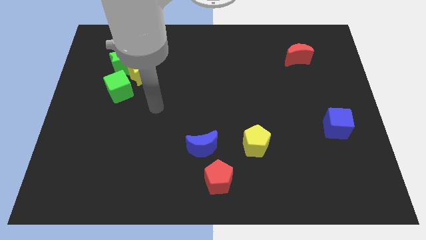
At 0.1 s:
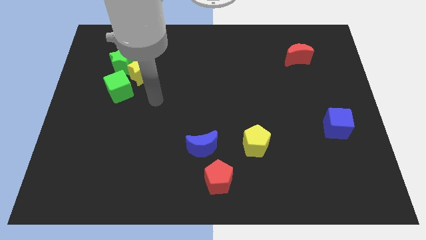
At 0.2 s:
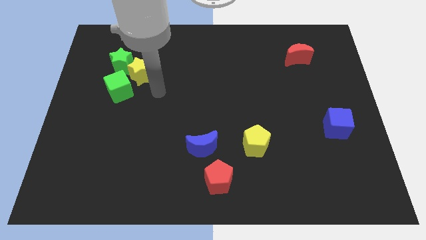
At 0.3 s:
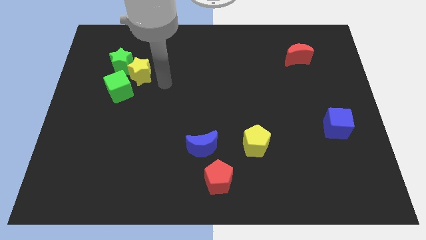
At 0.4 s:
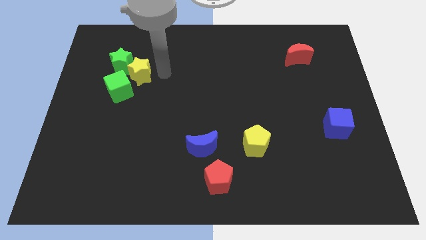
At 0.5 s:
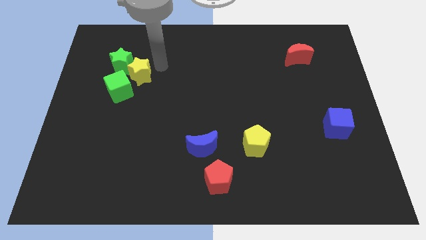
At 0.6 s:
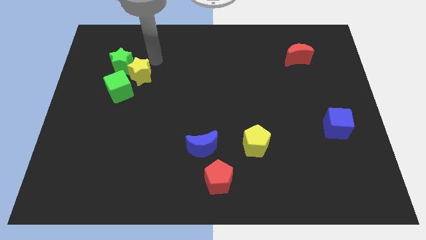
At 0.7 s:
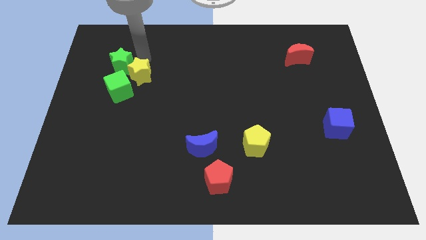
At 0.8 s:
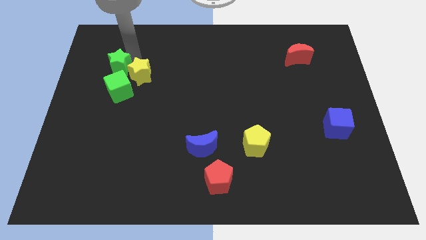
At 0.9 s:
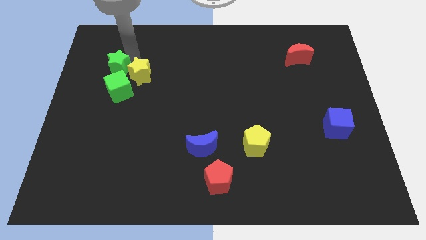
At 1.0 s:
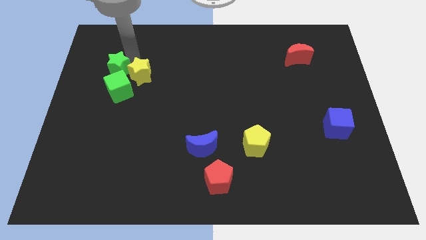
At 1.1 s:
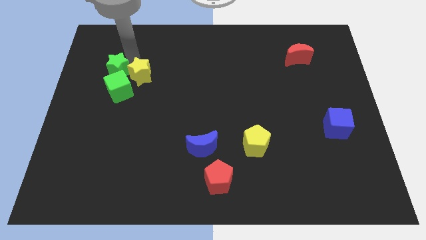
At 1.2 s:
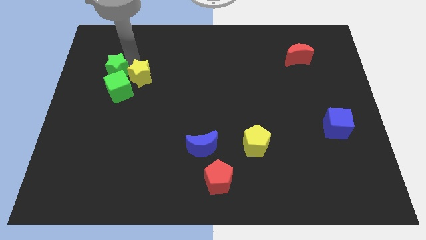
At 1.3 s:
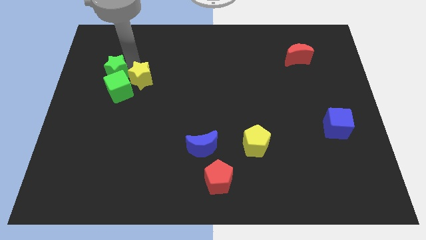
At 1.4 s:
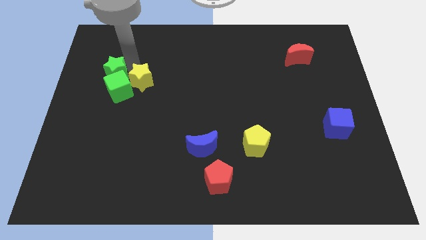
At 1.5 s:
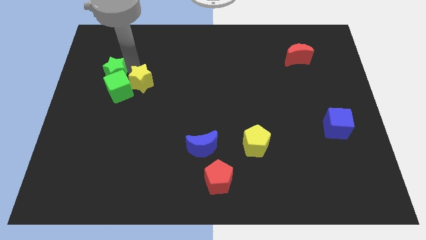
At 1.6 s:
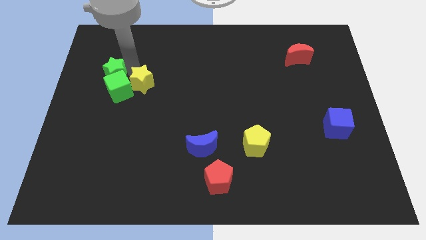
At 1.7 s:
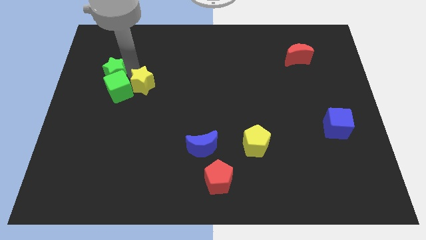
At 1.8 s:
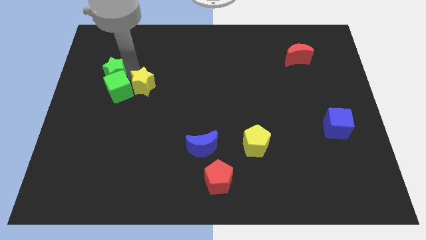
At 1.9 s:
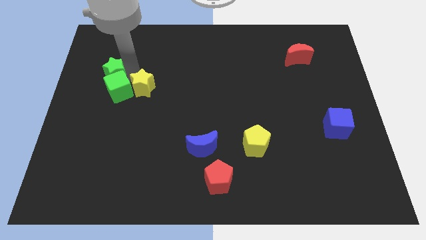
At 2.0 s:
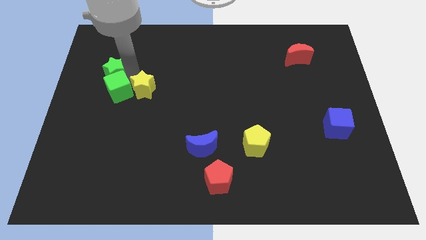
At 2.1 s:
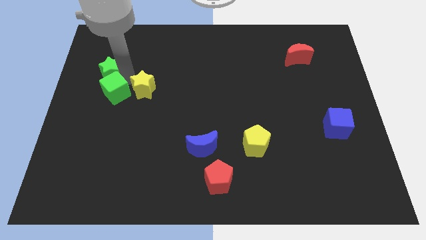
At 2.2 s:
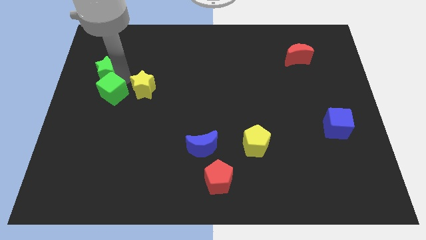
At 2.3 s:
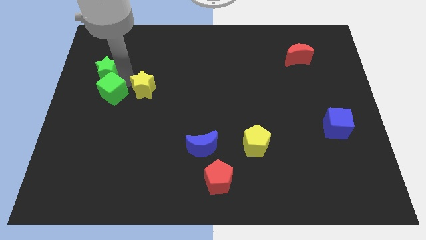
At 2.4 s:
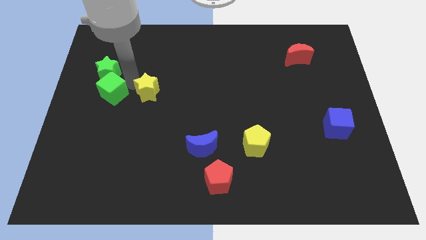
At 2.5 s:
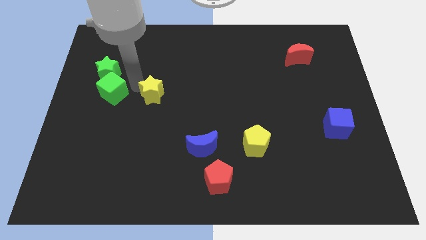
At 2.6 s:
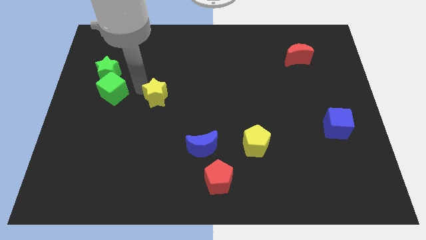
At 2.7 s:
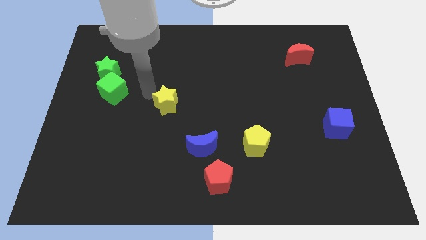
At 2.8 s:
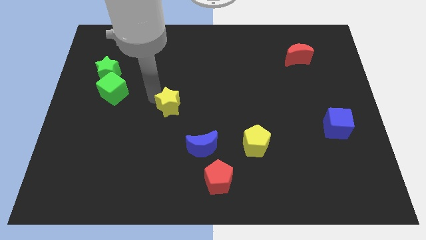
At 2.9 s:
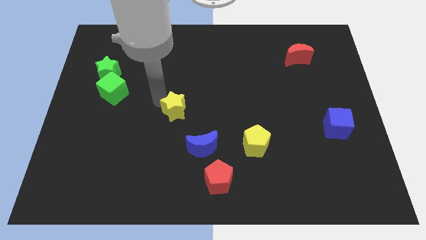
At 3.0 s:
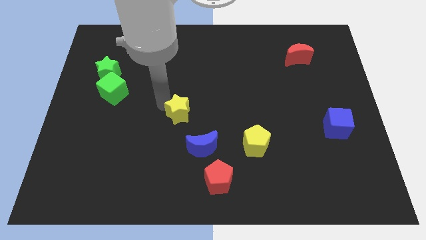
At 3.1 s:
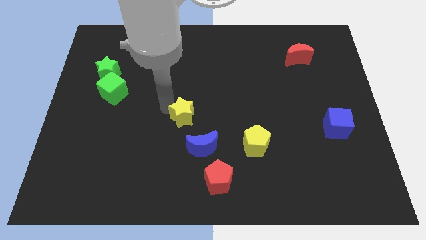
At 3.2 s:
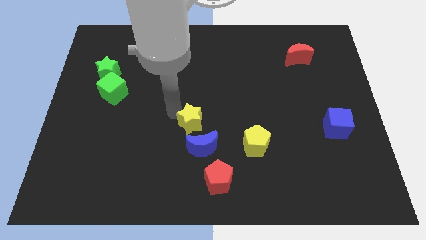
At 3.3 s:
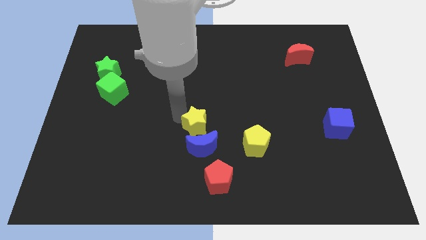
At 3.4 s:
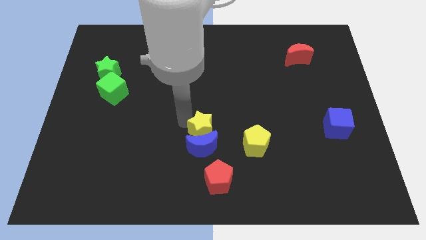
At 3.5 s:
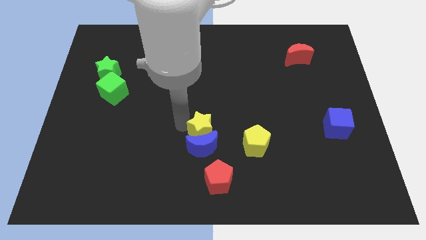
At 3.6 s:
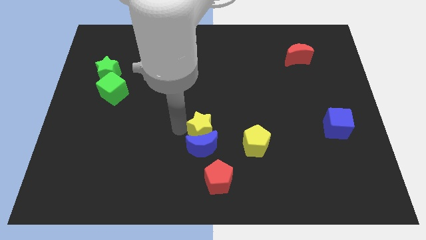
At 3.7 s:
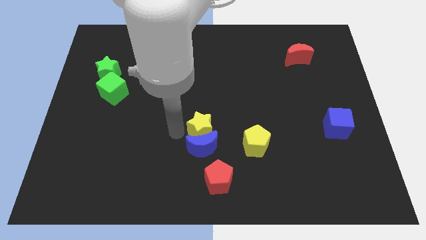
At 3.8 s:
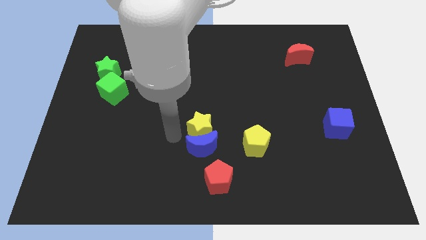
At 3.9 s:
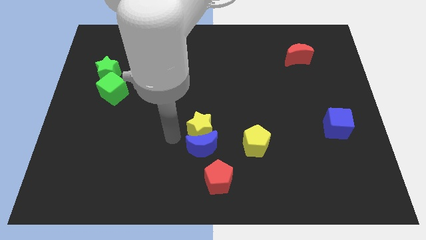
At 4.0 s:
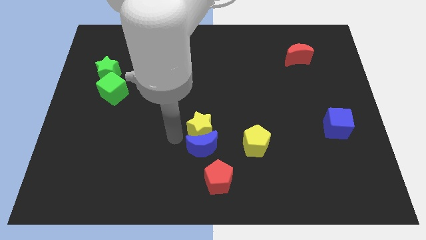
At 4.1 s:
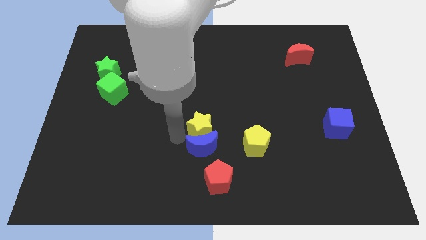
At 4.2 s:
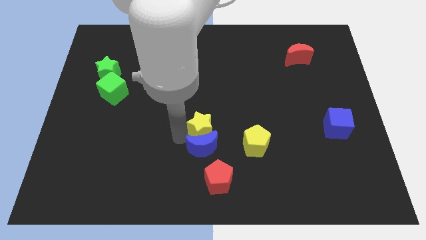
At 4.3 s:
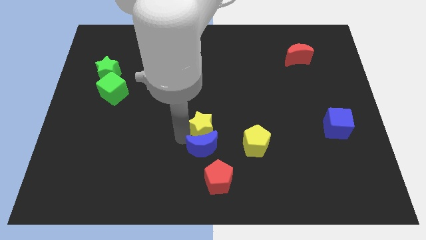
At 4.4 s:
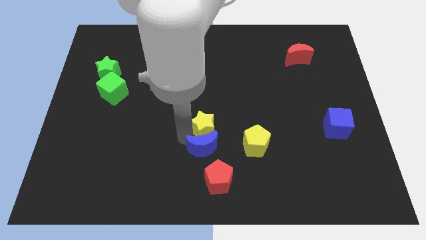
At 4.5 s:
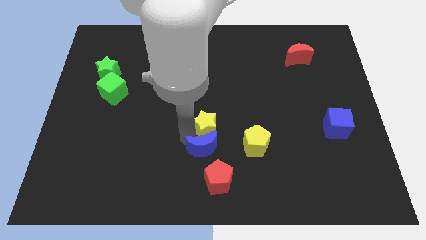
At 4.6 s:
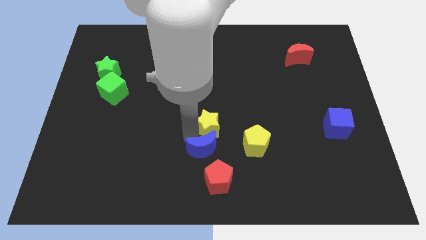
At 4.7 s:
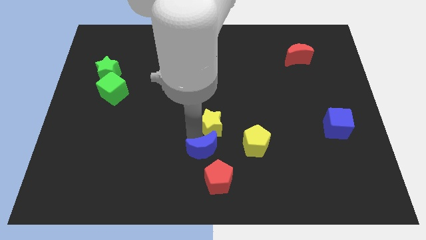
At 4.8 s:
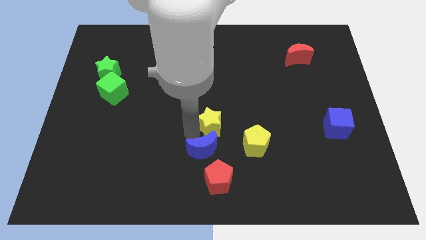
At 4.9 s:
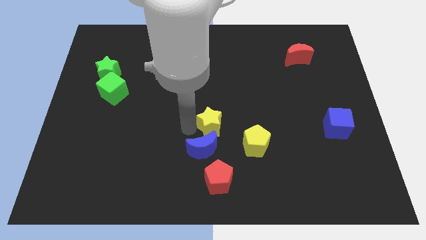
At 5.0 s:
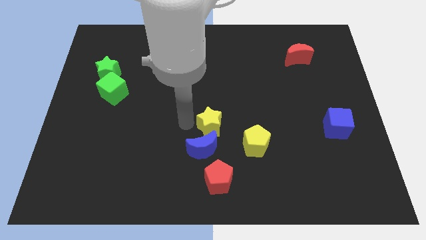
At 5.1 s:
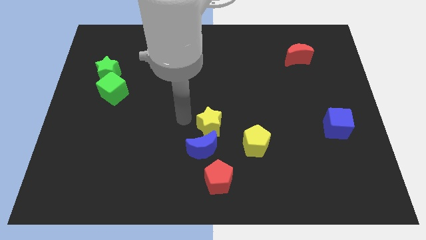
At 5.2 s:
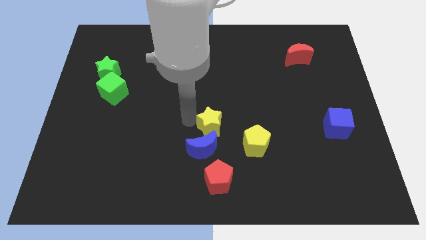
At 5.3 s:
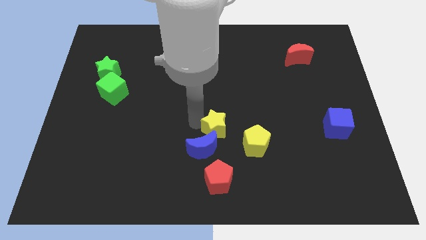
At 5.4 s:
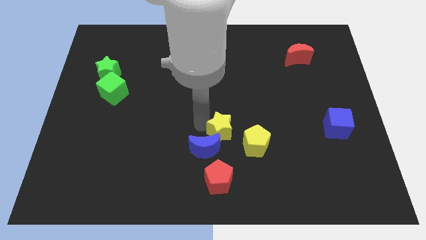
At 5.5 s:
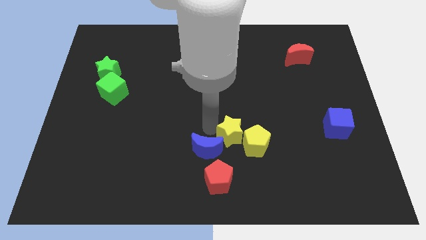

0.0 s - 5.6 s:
slide the yellow star next to the yellow pentagon

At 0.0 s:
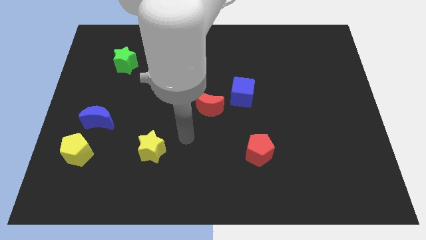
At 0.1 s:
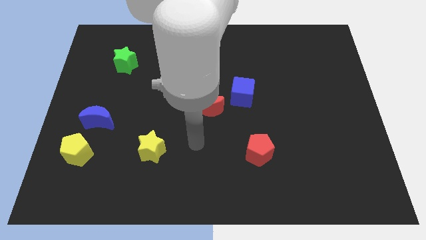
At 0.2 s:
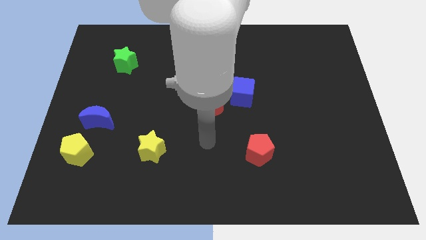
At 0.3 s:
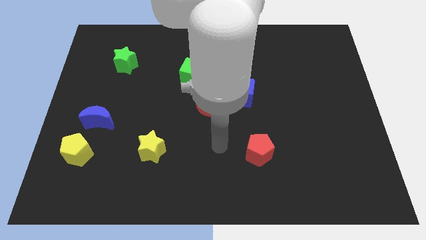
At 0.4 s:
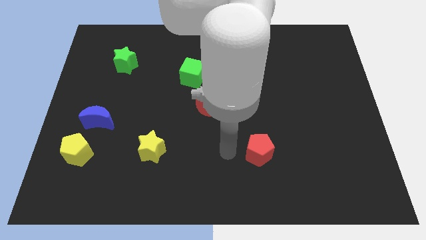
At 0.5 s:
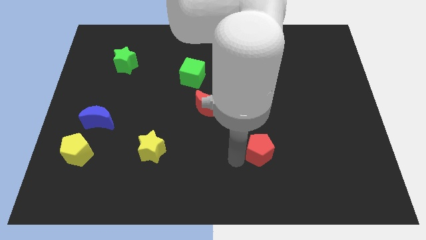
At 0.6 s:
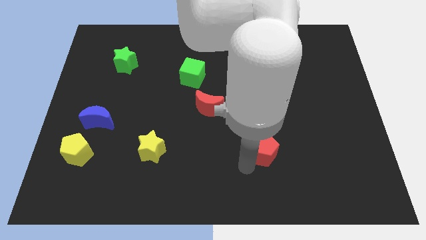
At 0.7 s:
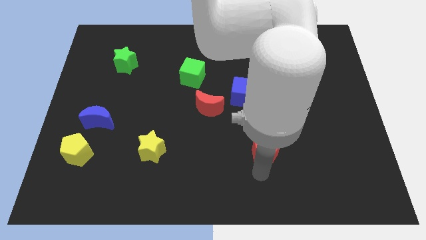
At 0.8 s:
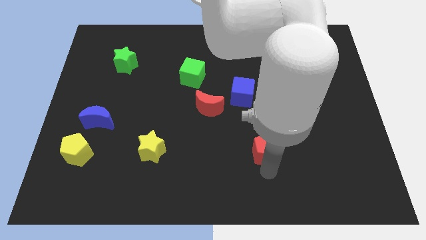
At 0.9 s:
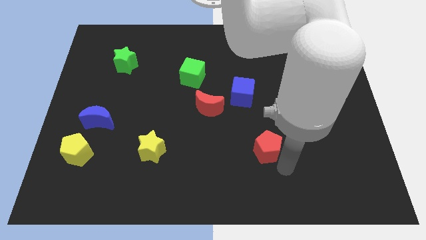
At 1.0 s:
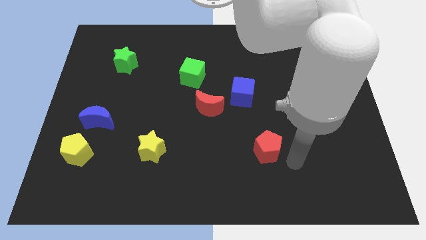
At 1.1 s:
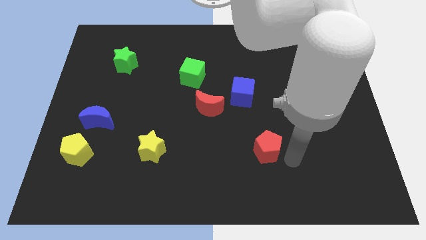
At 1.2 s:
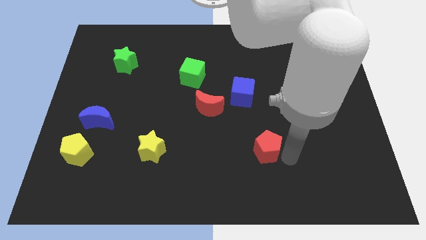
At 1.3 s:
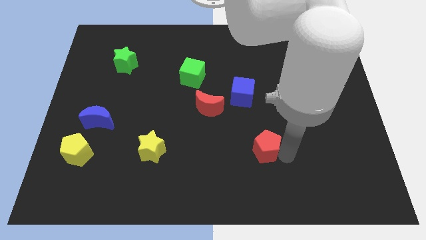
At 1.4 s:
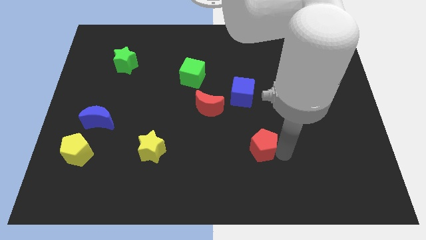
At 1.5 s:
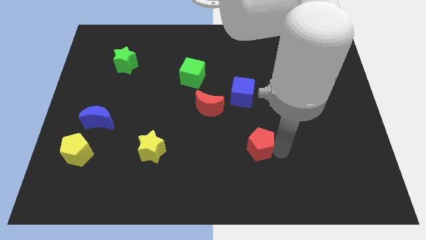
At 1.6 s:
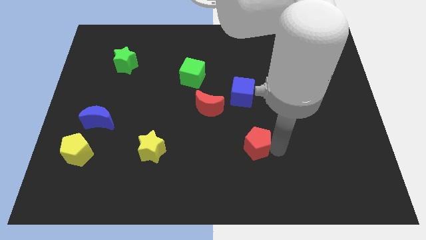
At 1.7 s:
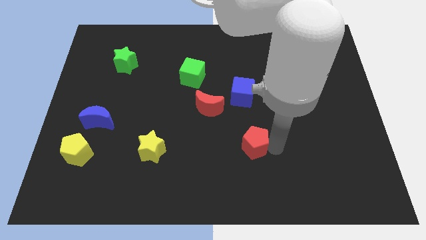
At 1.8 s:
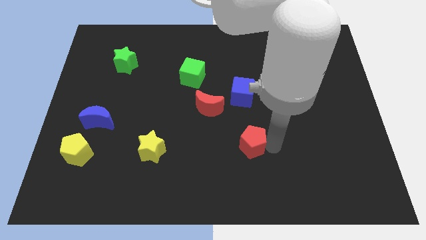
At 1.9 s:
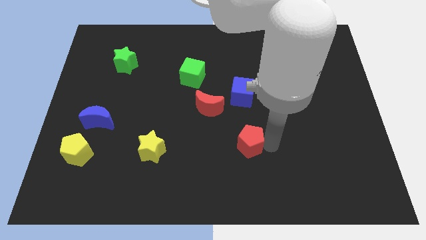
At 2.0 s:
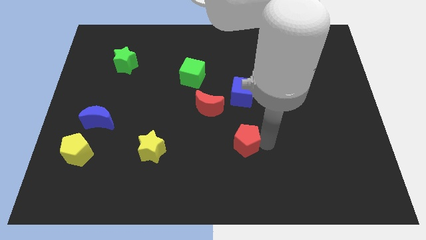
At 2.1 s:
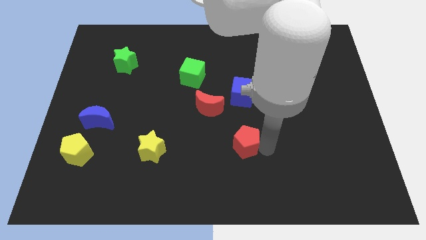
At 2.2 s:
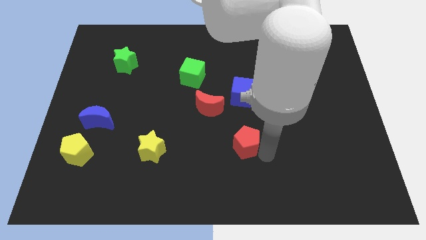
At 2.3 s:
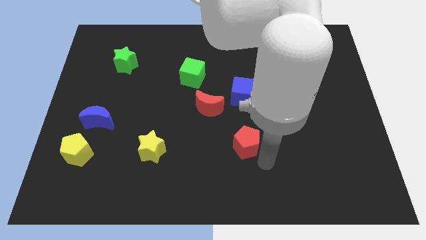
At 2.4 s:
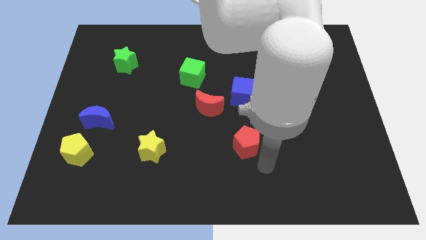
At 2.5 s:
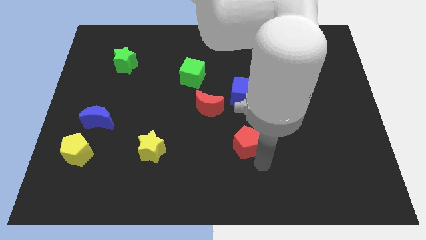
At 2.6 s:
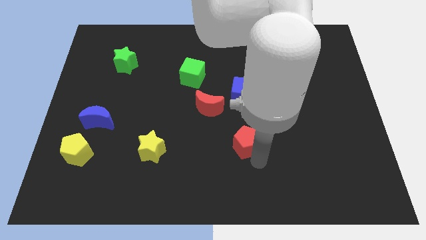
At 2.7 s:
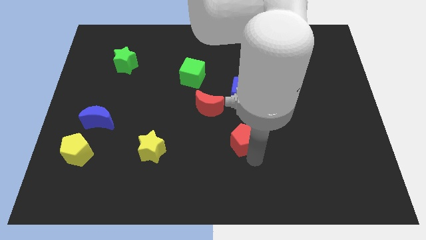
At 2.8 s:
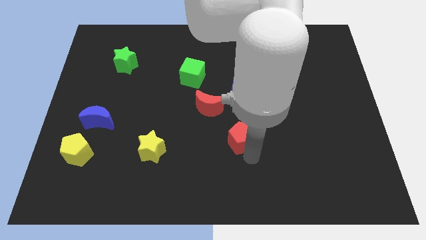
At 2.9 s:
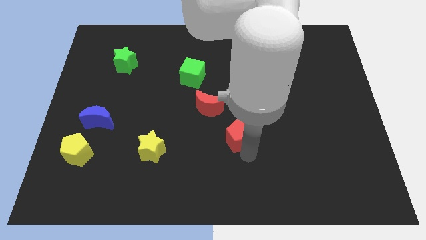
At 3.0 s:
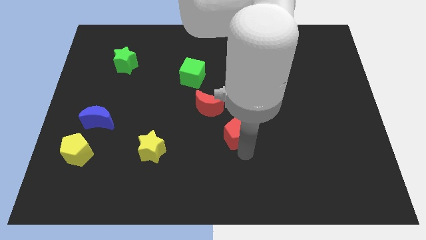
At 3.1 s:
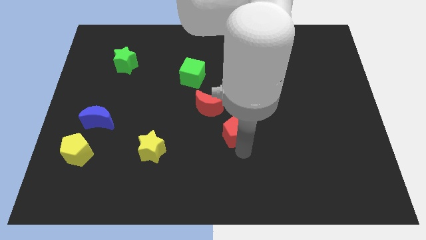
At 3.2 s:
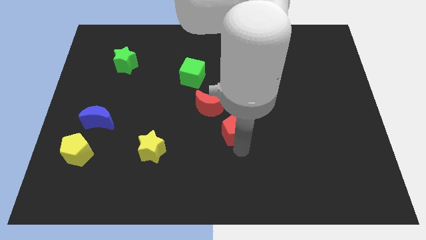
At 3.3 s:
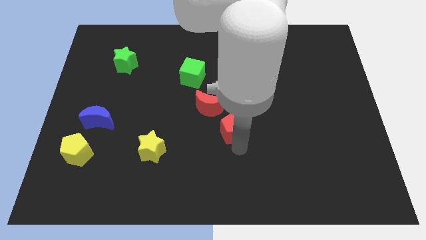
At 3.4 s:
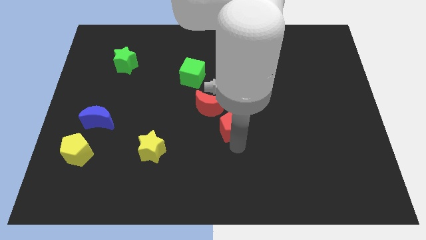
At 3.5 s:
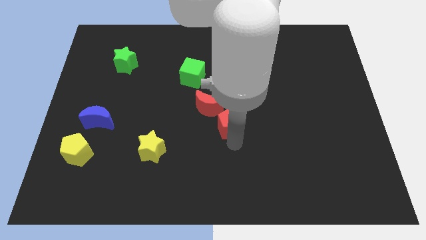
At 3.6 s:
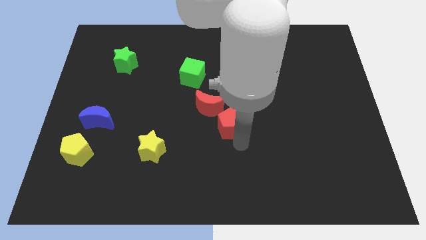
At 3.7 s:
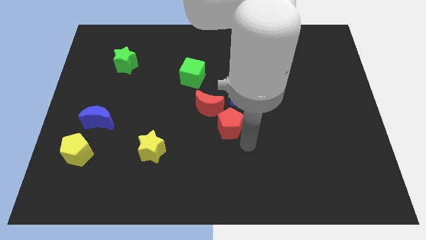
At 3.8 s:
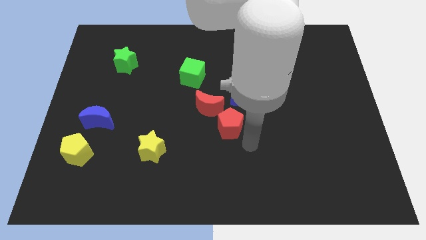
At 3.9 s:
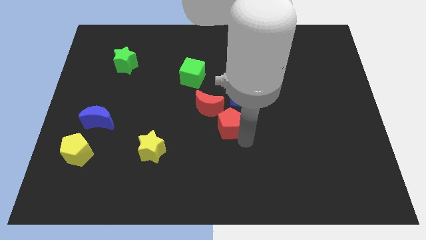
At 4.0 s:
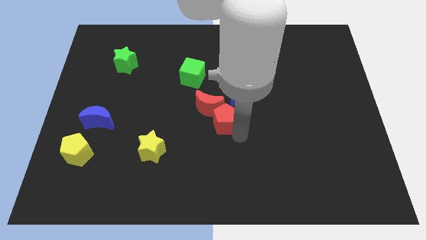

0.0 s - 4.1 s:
move the red pentagon next to the red moon
